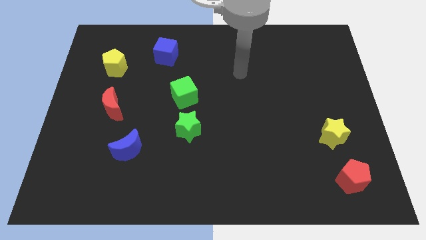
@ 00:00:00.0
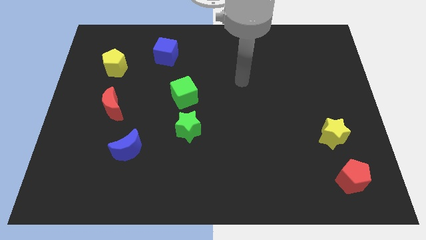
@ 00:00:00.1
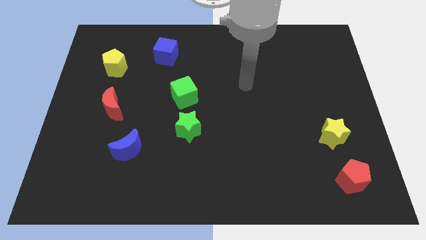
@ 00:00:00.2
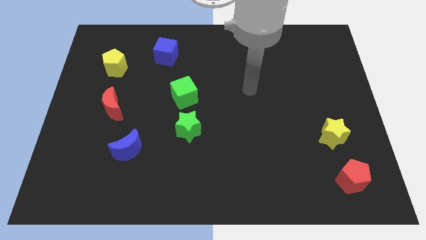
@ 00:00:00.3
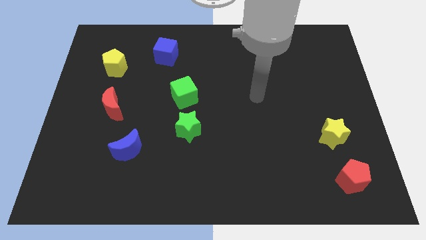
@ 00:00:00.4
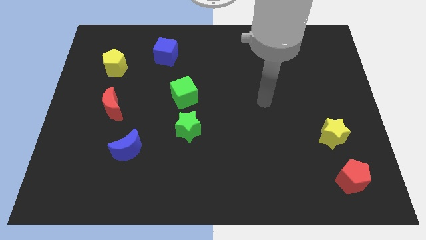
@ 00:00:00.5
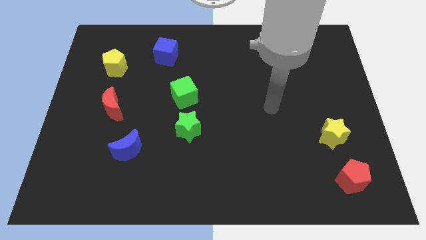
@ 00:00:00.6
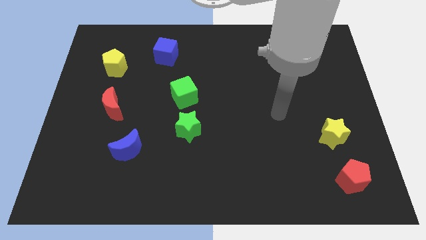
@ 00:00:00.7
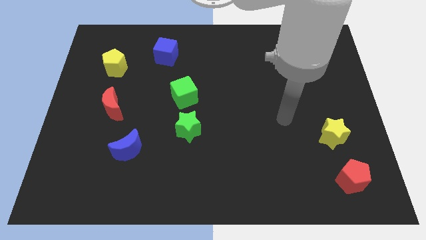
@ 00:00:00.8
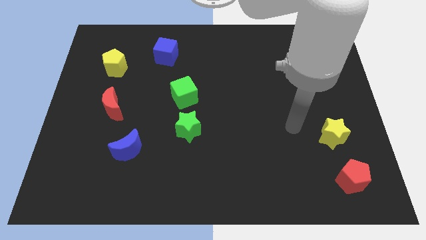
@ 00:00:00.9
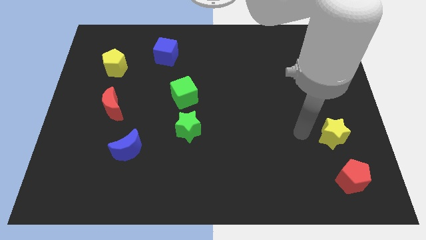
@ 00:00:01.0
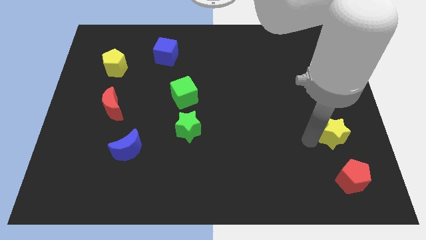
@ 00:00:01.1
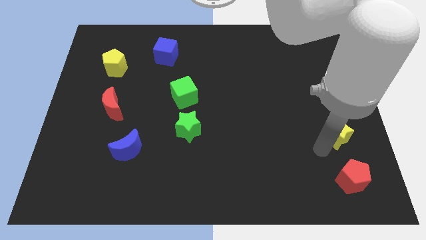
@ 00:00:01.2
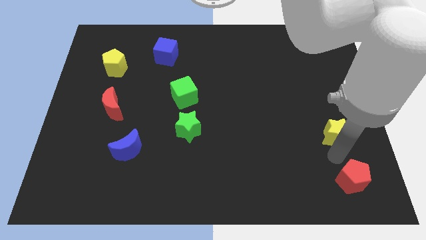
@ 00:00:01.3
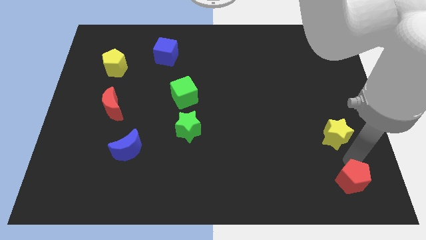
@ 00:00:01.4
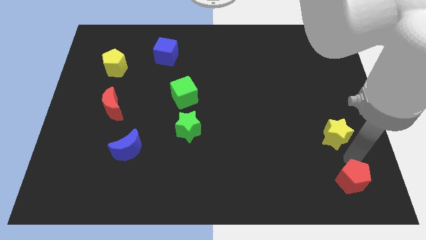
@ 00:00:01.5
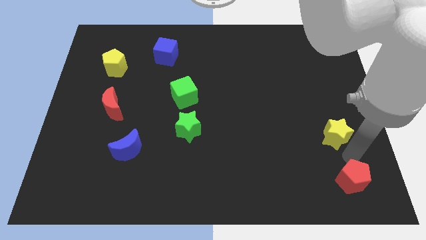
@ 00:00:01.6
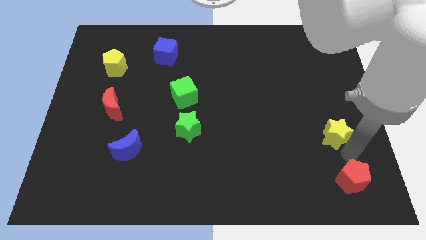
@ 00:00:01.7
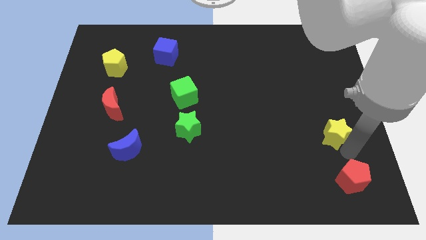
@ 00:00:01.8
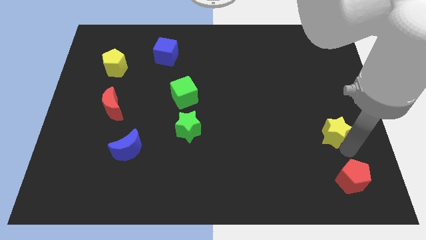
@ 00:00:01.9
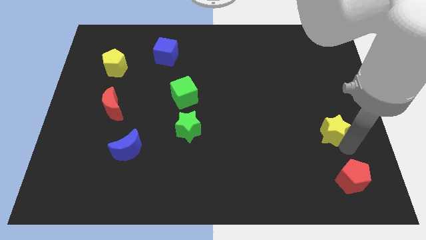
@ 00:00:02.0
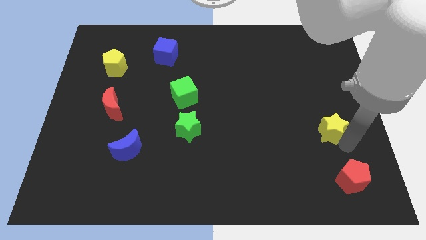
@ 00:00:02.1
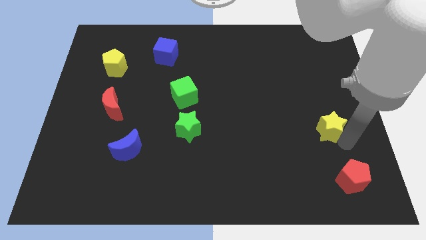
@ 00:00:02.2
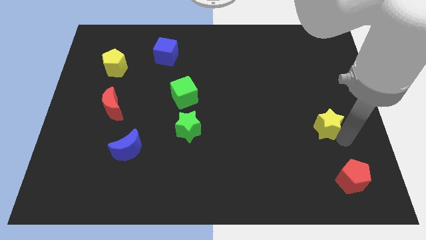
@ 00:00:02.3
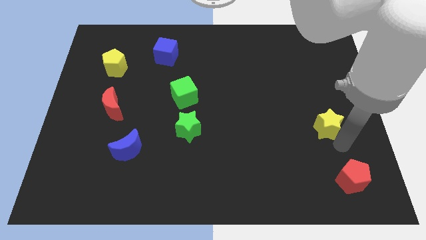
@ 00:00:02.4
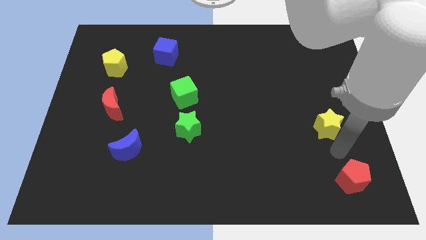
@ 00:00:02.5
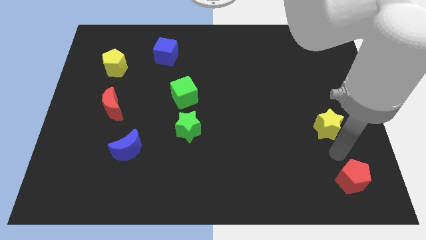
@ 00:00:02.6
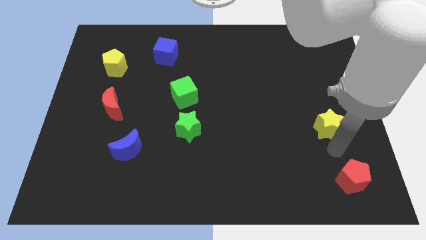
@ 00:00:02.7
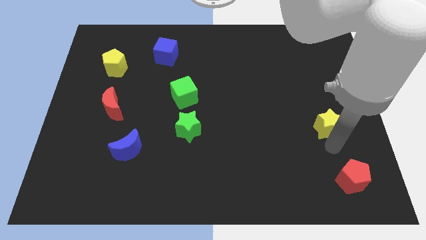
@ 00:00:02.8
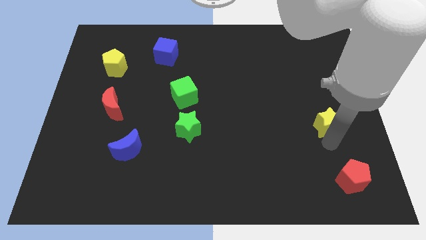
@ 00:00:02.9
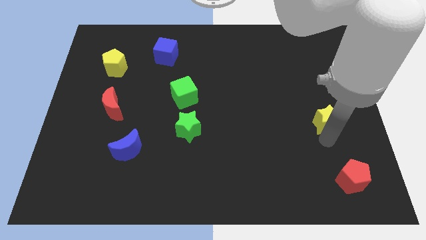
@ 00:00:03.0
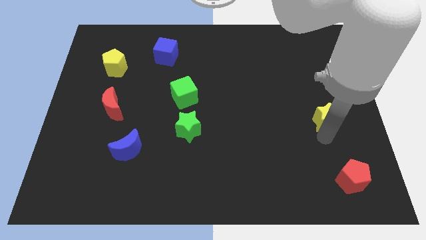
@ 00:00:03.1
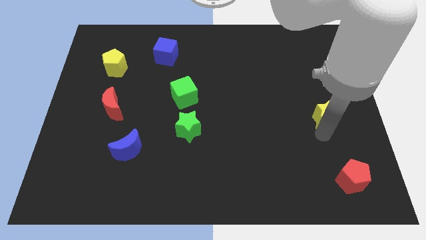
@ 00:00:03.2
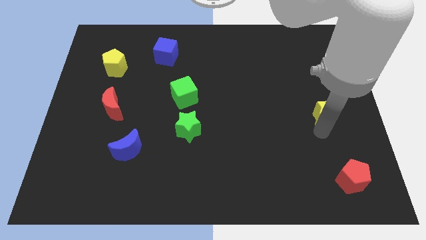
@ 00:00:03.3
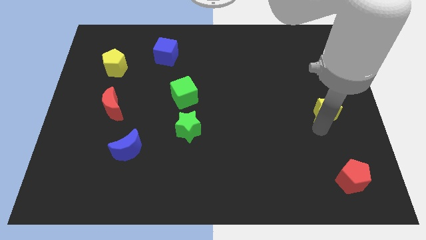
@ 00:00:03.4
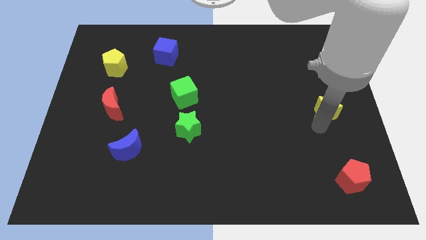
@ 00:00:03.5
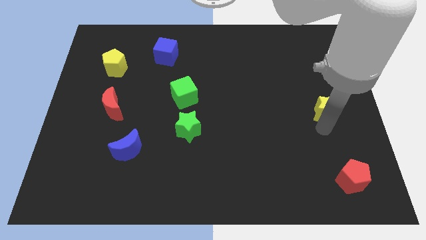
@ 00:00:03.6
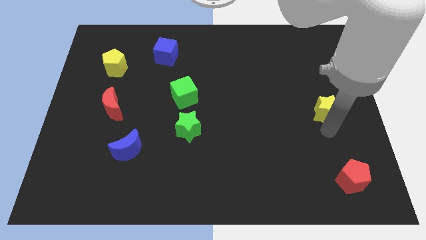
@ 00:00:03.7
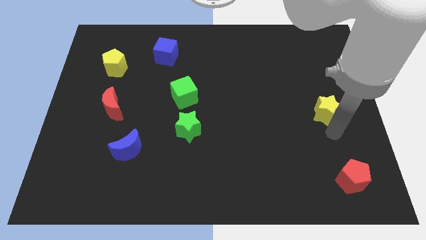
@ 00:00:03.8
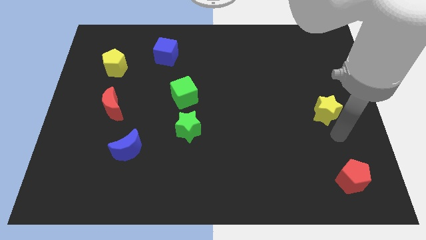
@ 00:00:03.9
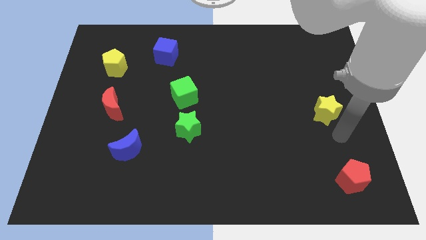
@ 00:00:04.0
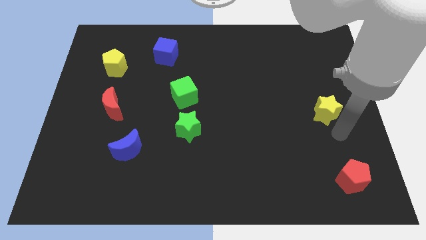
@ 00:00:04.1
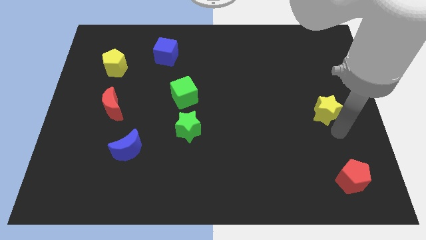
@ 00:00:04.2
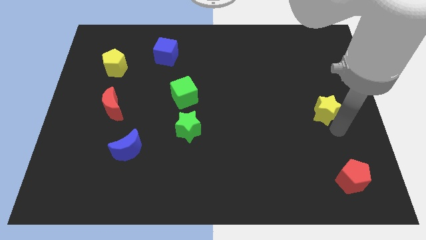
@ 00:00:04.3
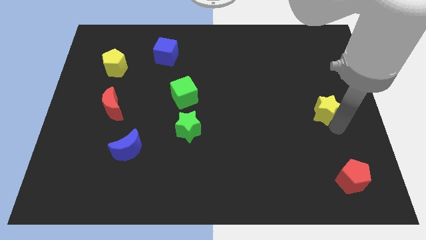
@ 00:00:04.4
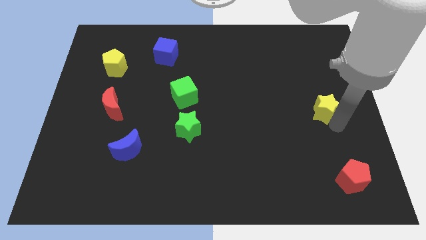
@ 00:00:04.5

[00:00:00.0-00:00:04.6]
slide the yellow star upwards a bit

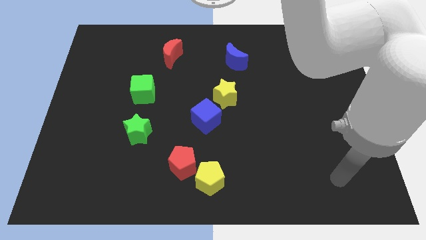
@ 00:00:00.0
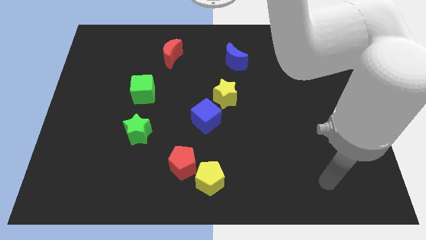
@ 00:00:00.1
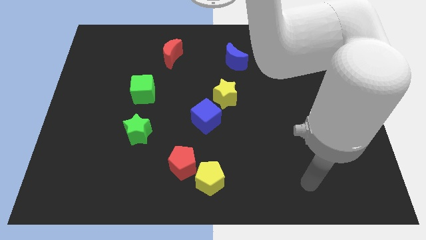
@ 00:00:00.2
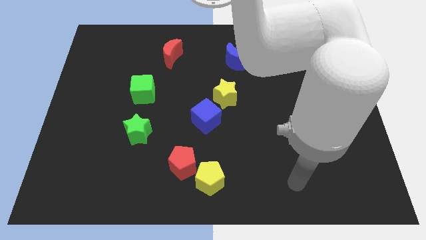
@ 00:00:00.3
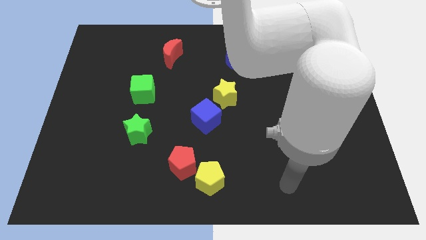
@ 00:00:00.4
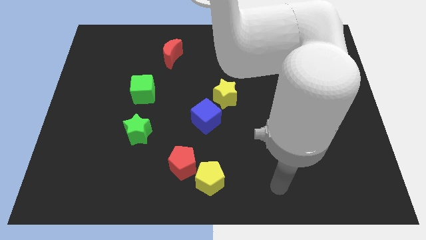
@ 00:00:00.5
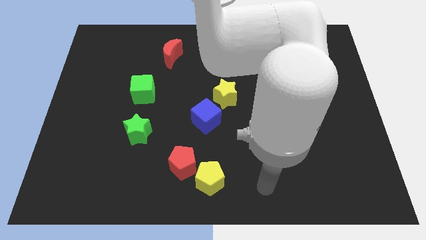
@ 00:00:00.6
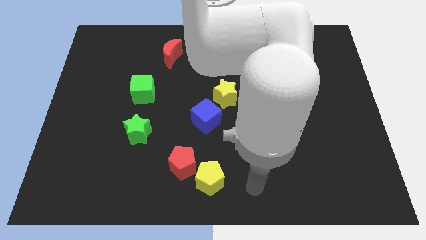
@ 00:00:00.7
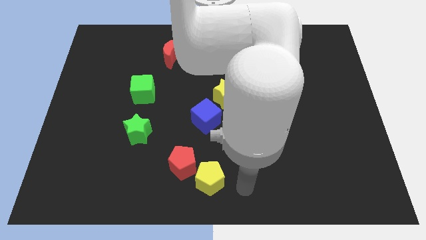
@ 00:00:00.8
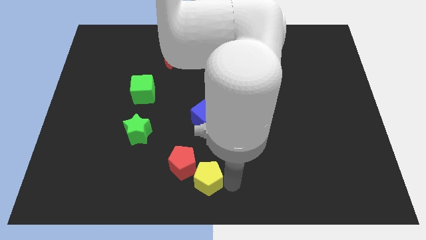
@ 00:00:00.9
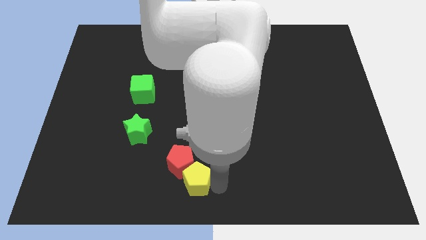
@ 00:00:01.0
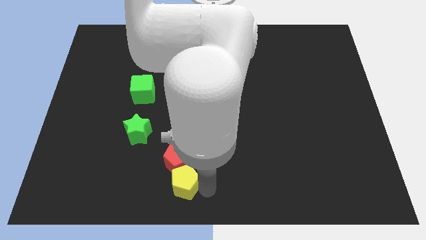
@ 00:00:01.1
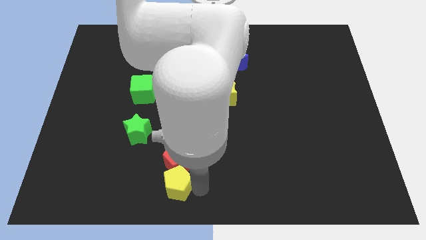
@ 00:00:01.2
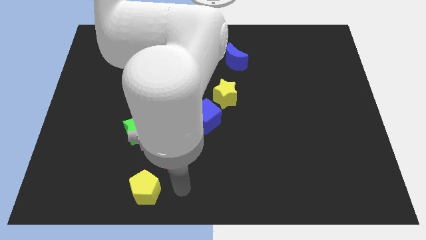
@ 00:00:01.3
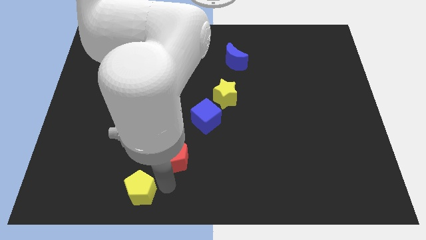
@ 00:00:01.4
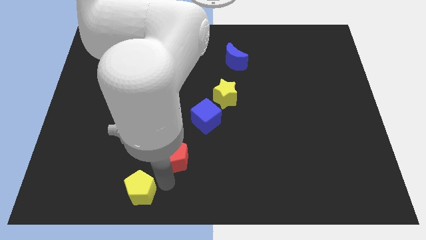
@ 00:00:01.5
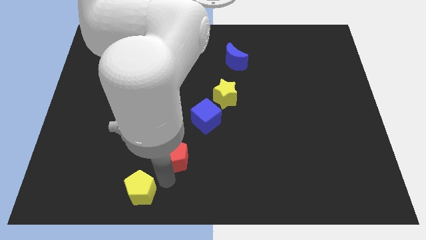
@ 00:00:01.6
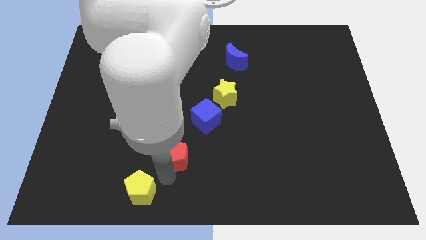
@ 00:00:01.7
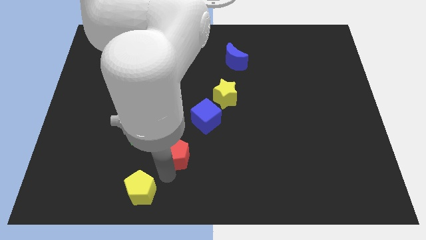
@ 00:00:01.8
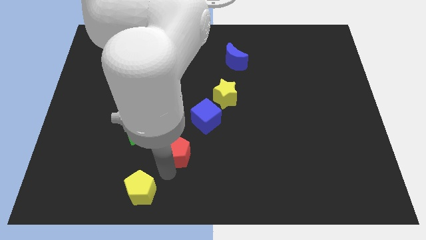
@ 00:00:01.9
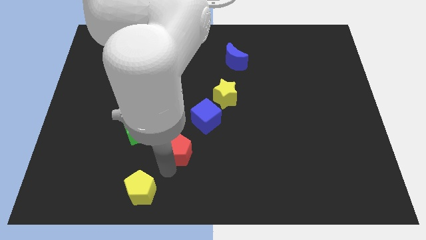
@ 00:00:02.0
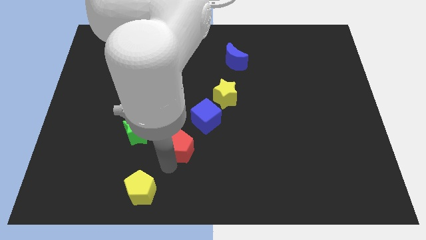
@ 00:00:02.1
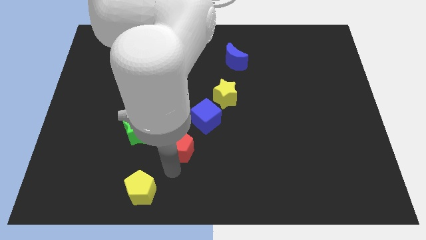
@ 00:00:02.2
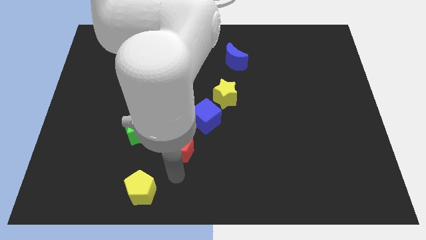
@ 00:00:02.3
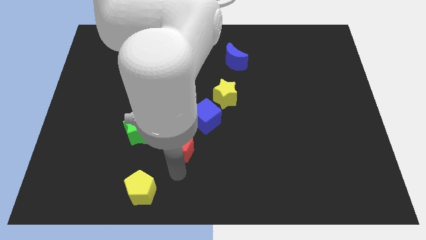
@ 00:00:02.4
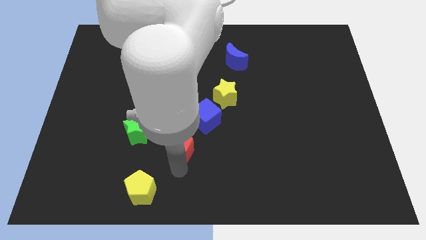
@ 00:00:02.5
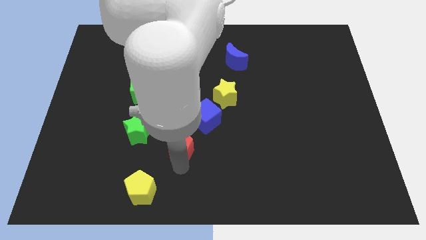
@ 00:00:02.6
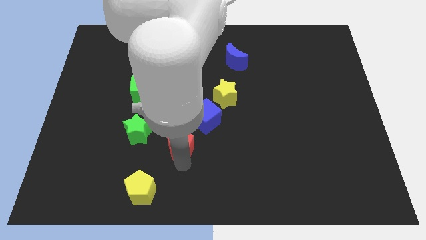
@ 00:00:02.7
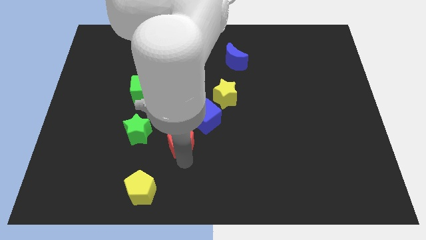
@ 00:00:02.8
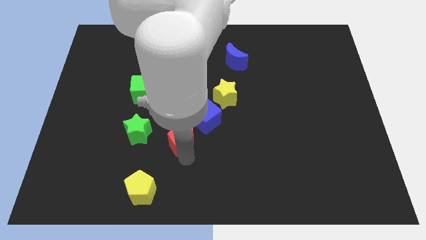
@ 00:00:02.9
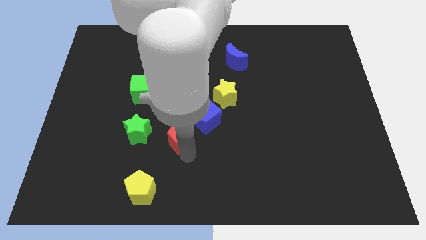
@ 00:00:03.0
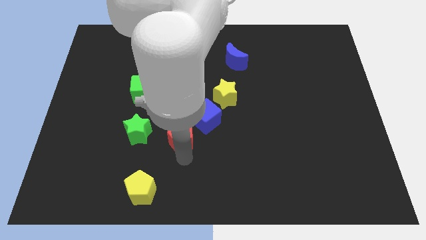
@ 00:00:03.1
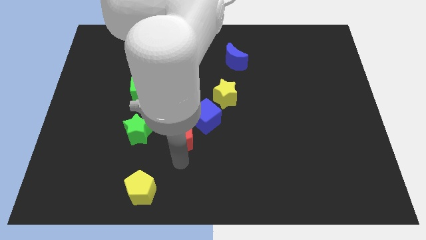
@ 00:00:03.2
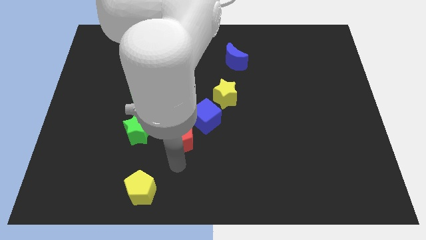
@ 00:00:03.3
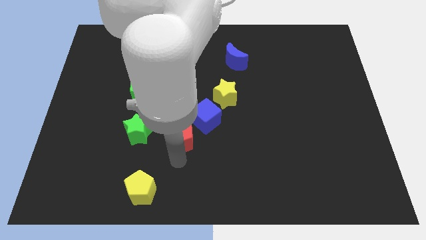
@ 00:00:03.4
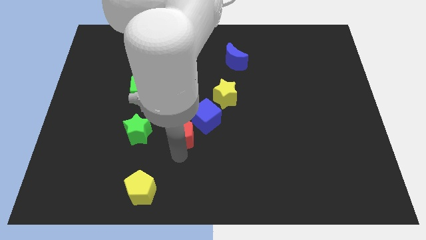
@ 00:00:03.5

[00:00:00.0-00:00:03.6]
push the red pentagon somewhat upwards
